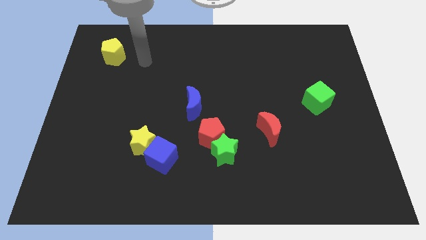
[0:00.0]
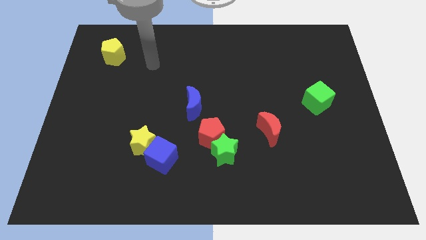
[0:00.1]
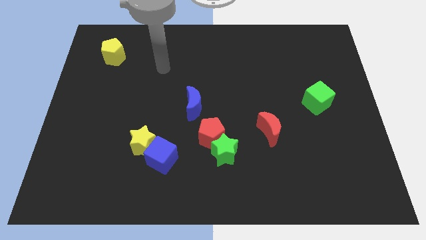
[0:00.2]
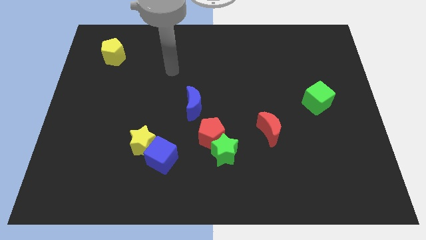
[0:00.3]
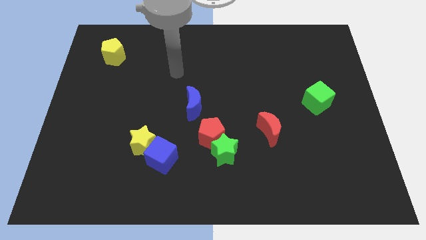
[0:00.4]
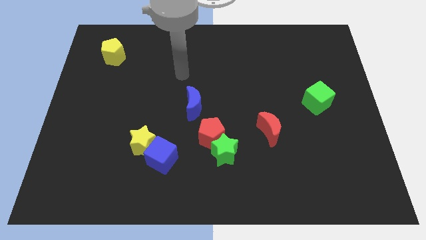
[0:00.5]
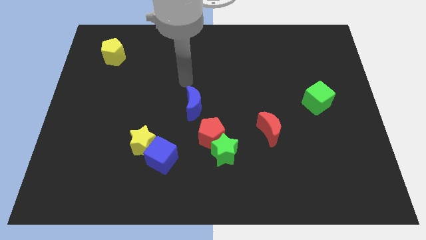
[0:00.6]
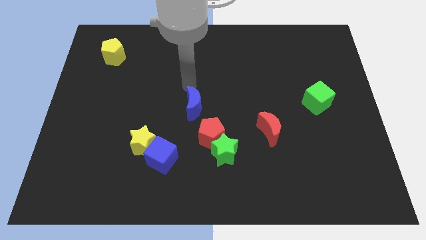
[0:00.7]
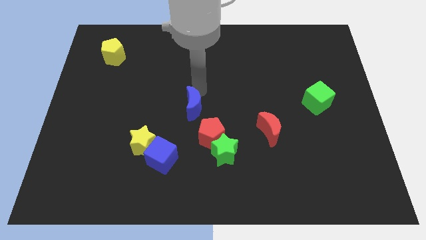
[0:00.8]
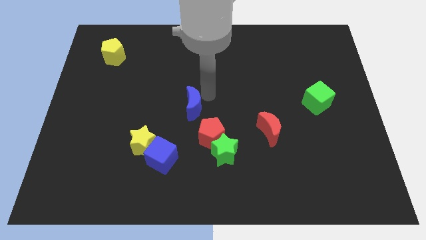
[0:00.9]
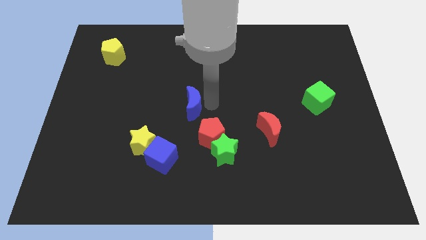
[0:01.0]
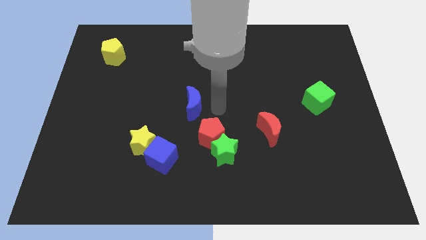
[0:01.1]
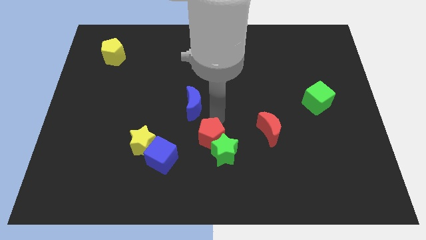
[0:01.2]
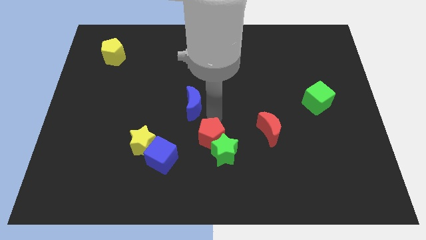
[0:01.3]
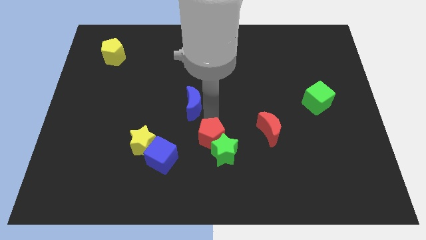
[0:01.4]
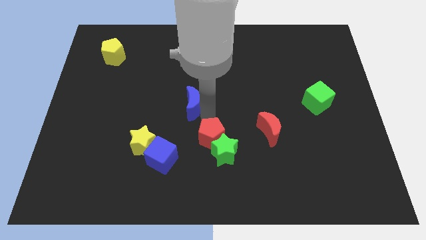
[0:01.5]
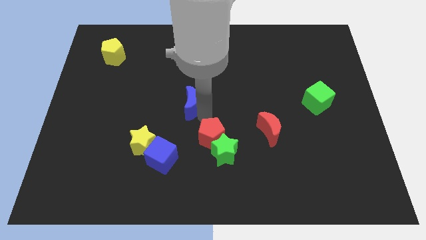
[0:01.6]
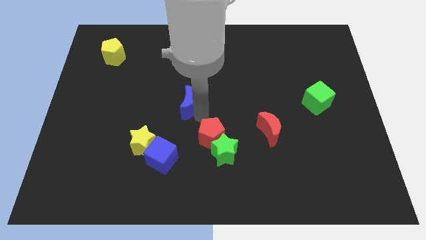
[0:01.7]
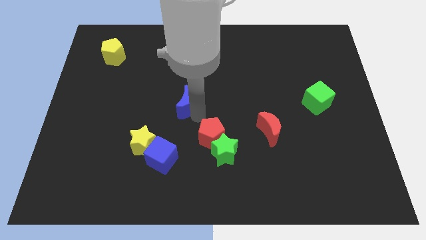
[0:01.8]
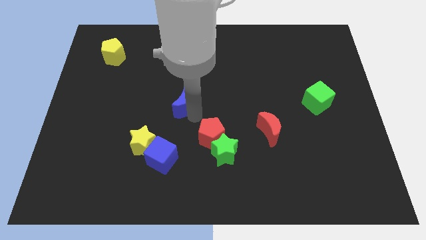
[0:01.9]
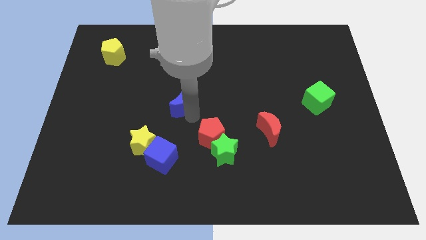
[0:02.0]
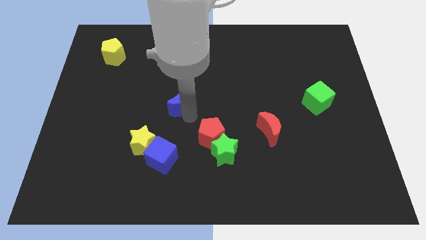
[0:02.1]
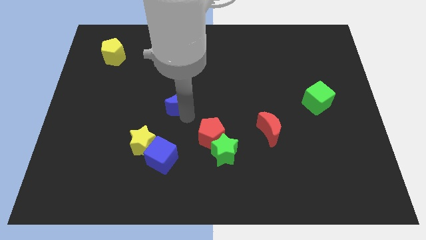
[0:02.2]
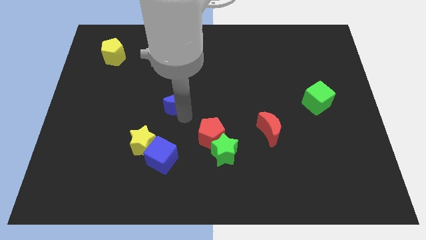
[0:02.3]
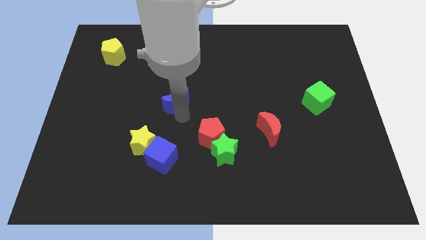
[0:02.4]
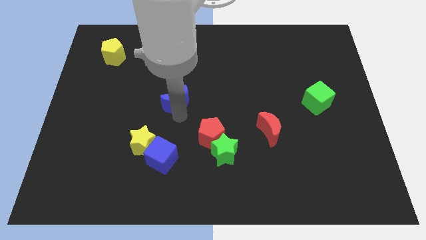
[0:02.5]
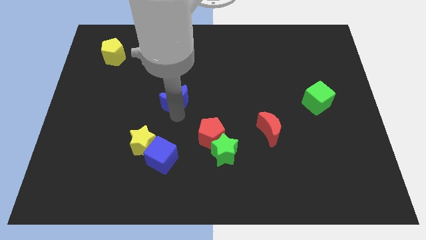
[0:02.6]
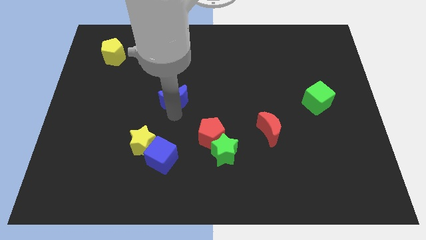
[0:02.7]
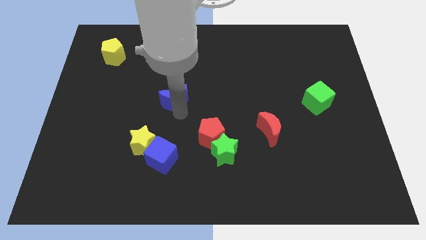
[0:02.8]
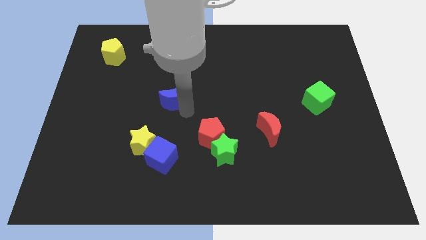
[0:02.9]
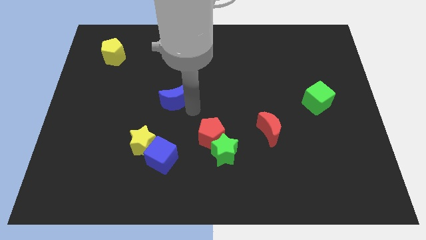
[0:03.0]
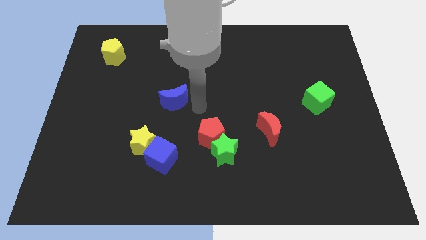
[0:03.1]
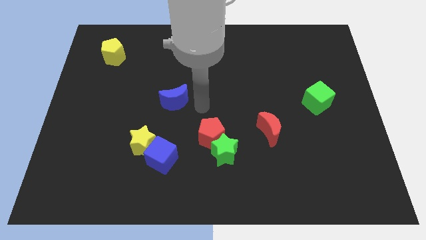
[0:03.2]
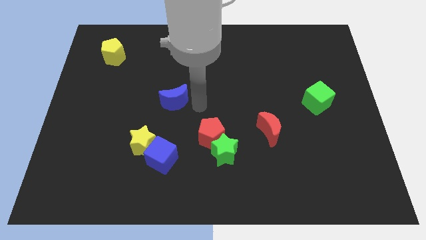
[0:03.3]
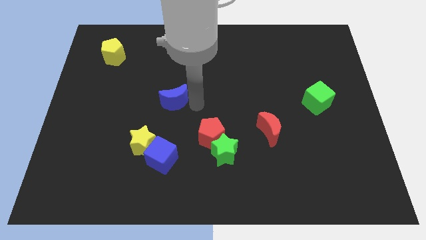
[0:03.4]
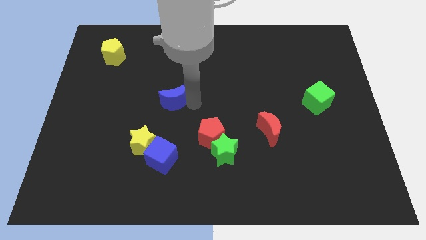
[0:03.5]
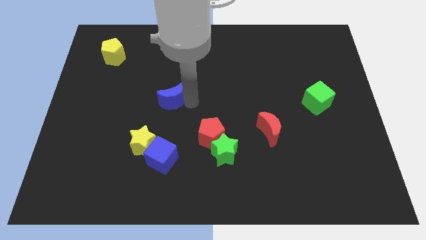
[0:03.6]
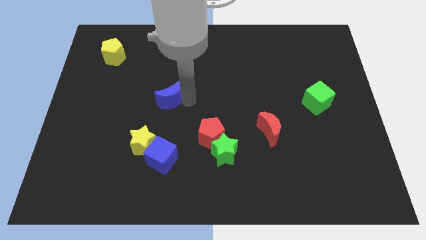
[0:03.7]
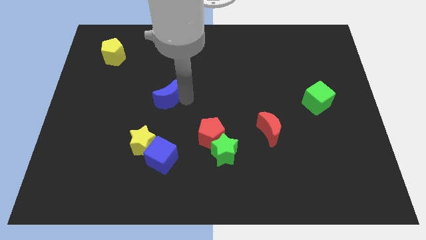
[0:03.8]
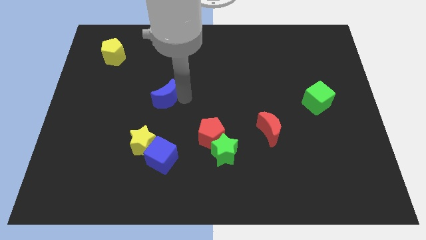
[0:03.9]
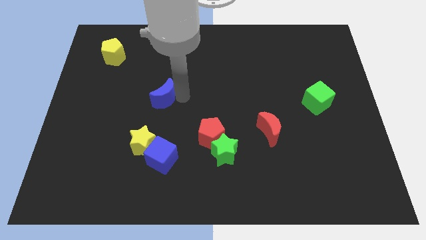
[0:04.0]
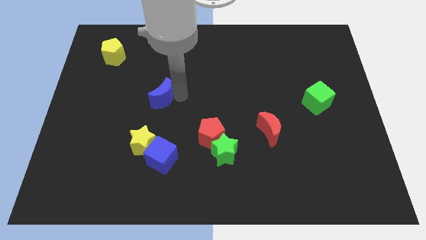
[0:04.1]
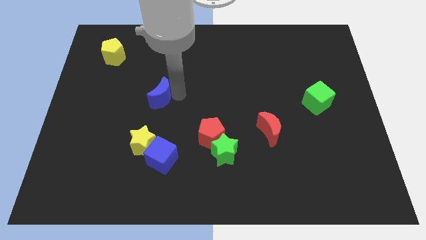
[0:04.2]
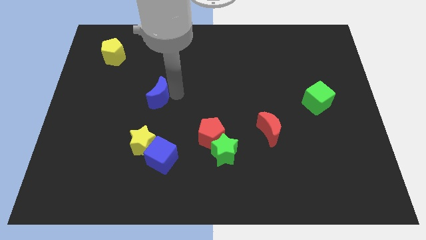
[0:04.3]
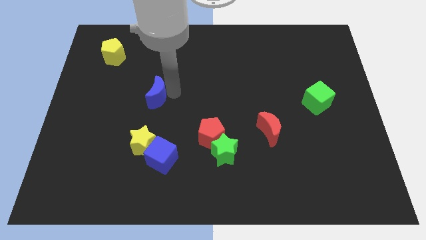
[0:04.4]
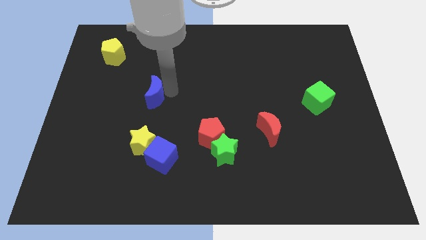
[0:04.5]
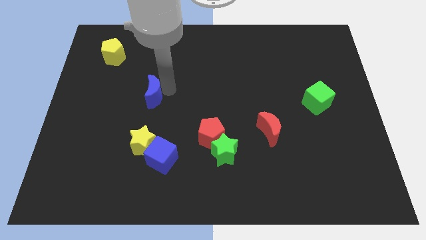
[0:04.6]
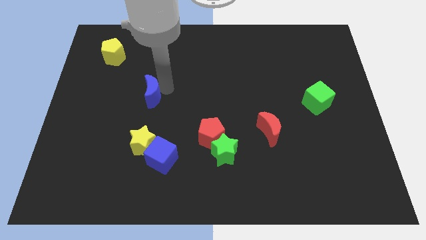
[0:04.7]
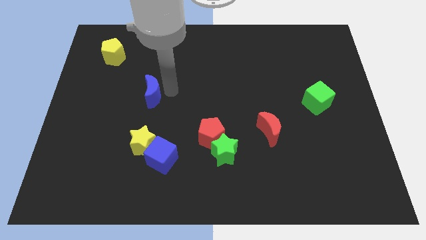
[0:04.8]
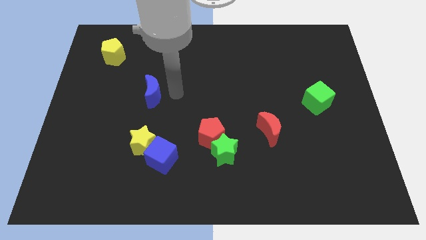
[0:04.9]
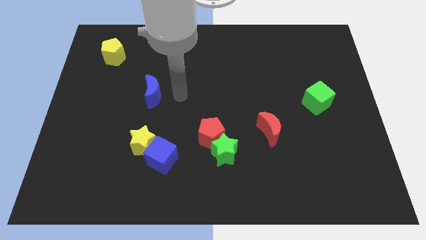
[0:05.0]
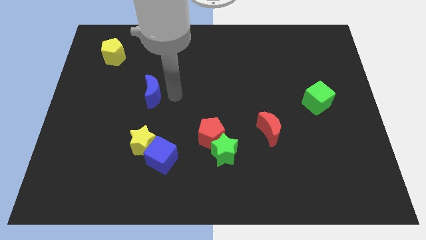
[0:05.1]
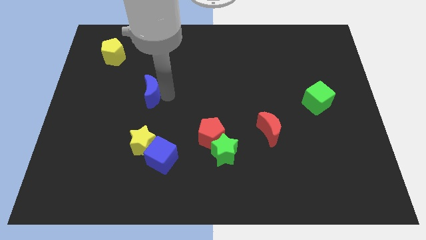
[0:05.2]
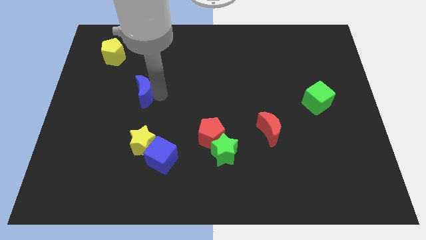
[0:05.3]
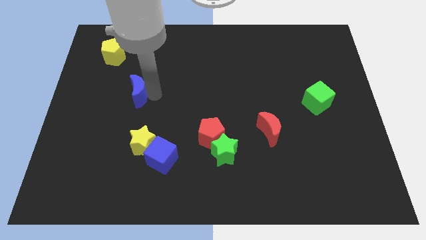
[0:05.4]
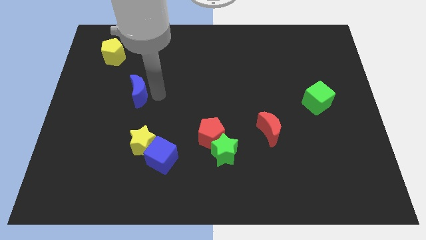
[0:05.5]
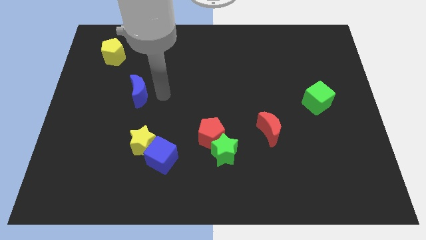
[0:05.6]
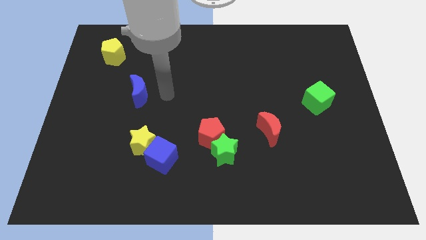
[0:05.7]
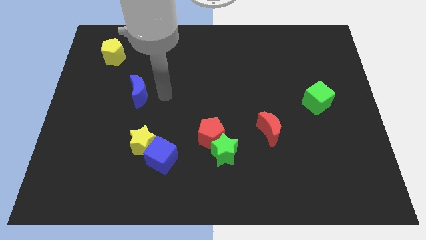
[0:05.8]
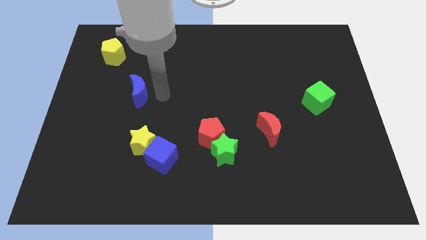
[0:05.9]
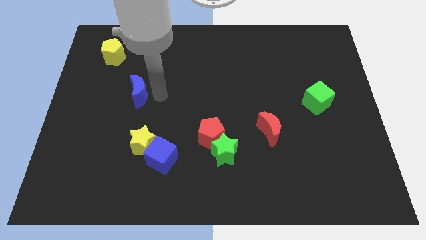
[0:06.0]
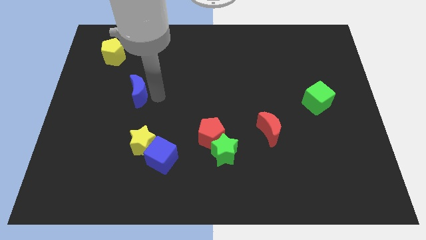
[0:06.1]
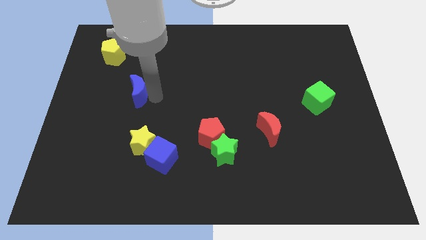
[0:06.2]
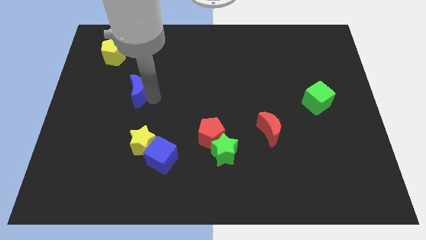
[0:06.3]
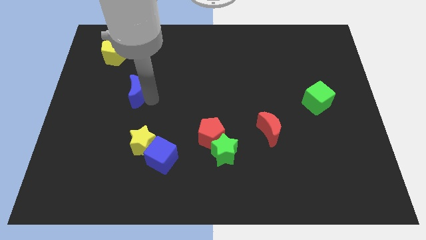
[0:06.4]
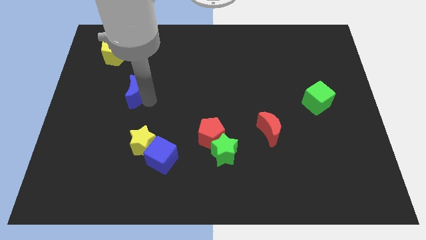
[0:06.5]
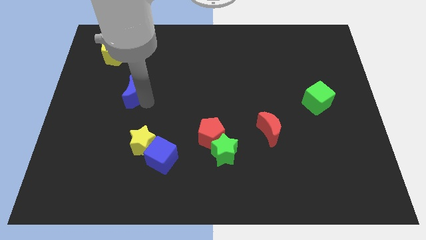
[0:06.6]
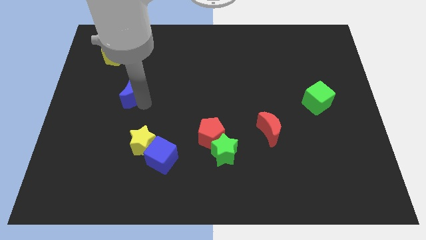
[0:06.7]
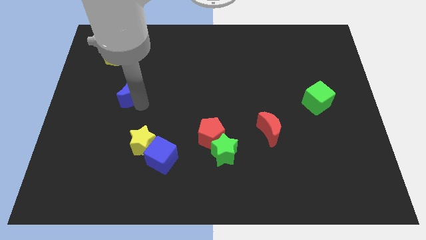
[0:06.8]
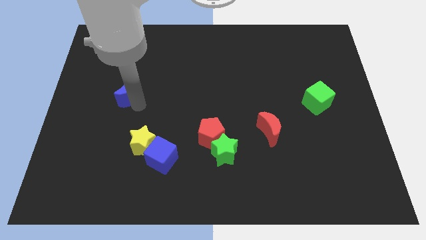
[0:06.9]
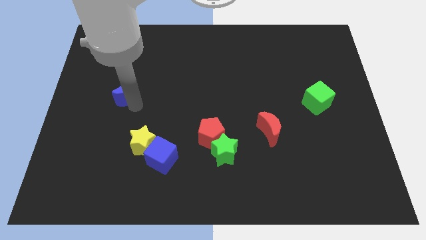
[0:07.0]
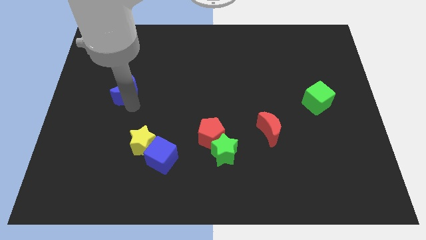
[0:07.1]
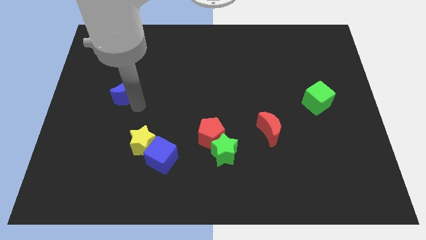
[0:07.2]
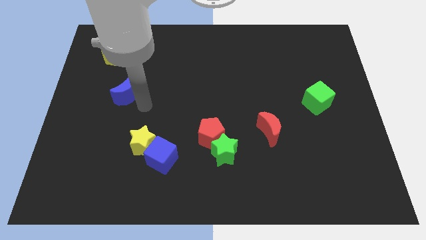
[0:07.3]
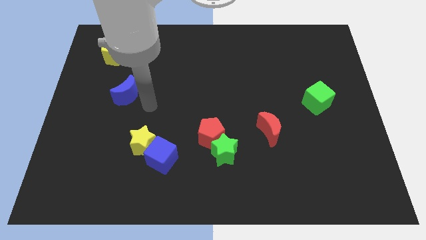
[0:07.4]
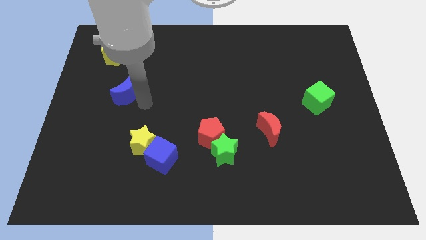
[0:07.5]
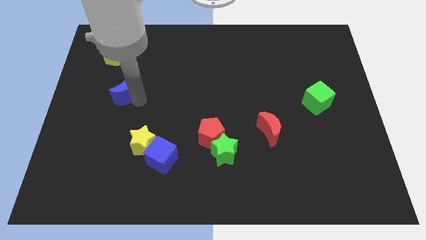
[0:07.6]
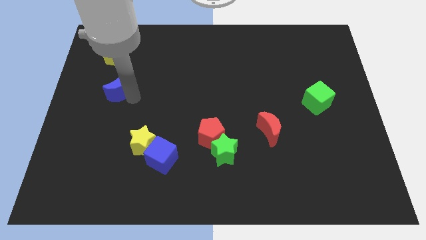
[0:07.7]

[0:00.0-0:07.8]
slide the blue moon to the bottom of the yellow pentagon
